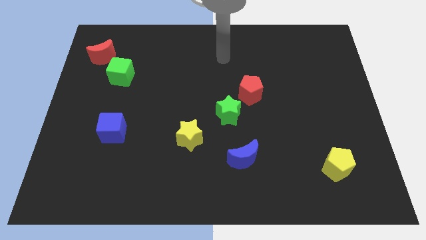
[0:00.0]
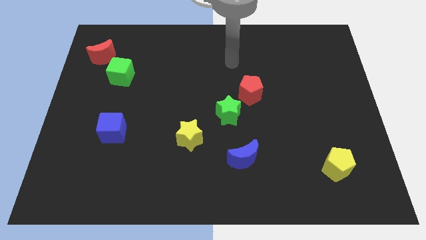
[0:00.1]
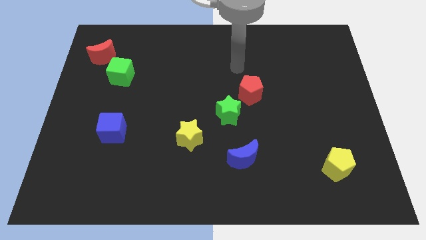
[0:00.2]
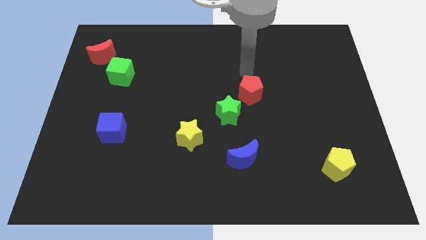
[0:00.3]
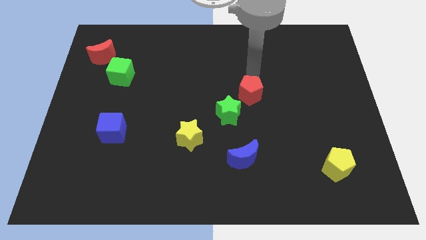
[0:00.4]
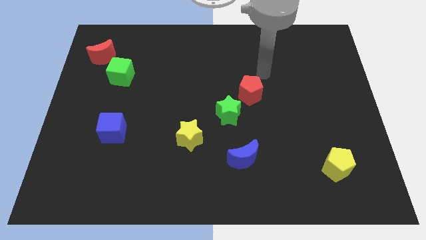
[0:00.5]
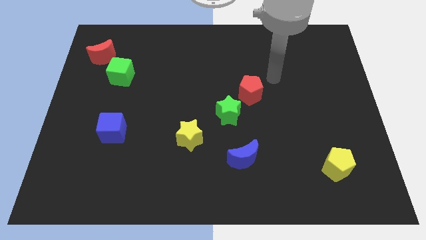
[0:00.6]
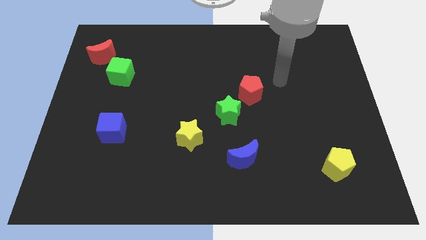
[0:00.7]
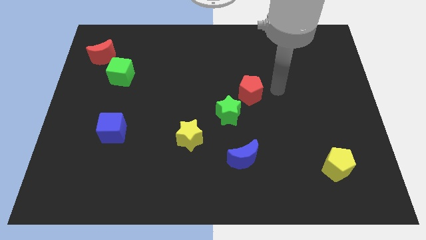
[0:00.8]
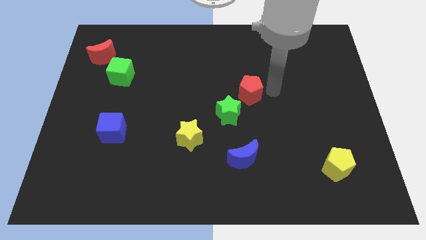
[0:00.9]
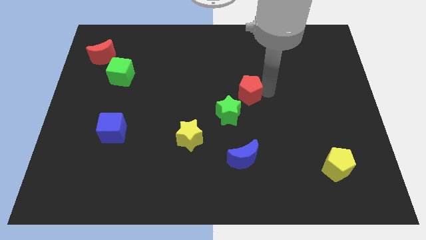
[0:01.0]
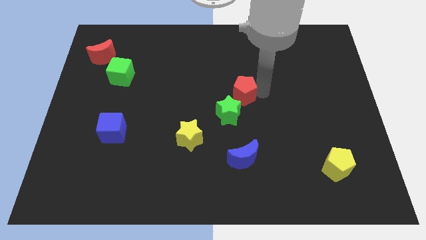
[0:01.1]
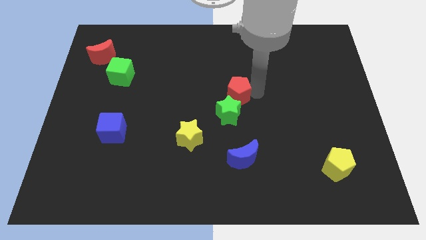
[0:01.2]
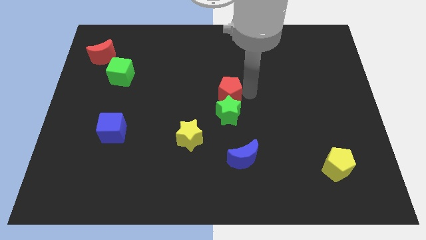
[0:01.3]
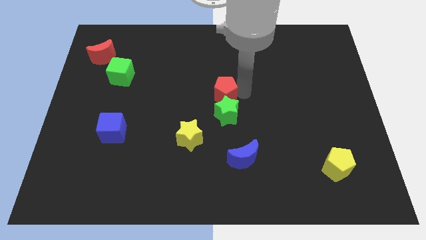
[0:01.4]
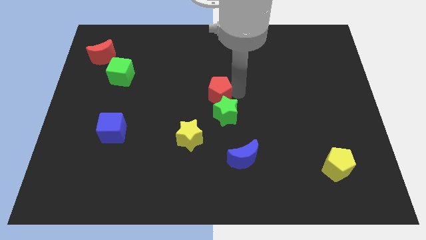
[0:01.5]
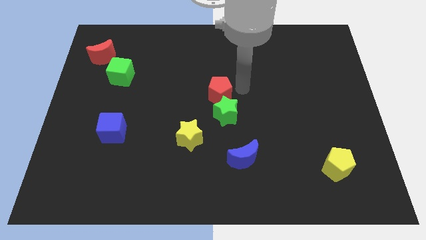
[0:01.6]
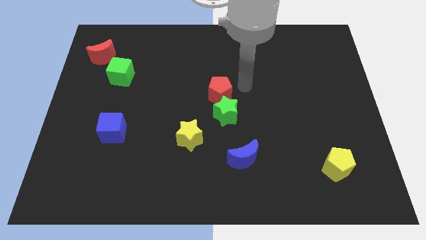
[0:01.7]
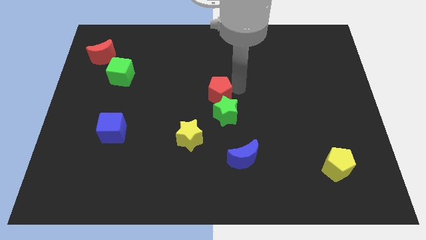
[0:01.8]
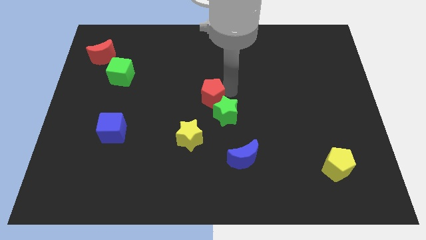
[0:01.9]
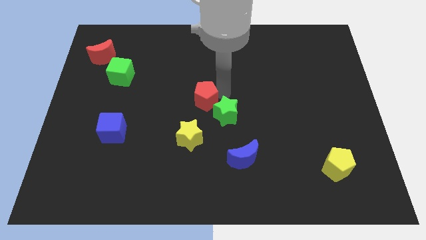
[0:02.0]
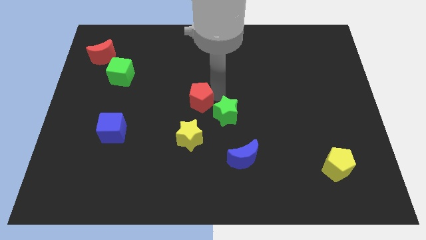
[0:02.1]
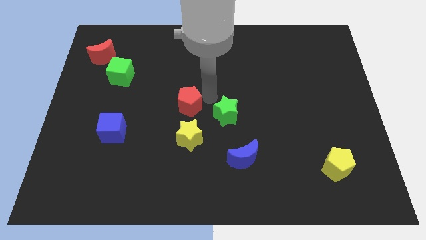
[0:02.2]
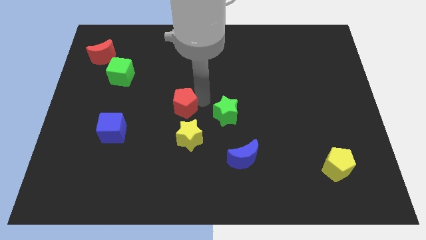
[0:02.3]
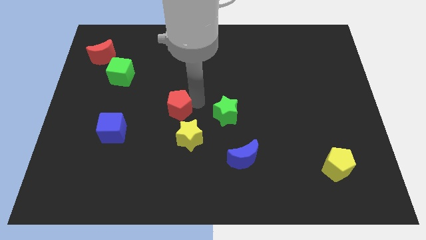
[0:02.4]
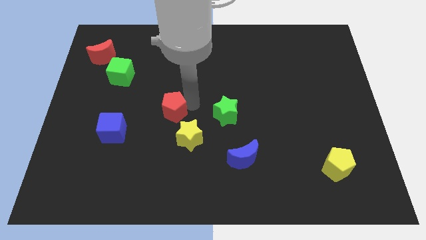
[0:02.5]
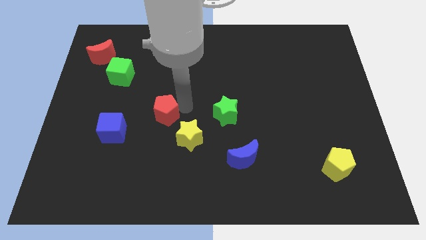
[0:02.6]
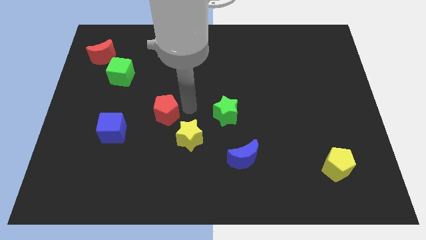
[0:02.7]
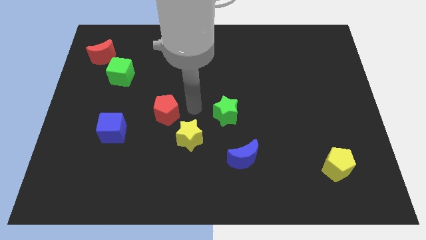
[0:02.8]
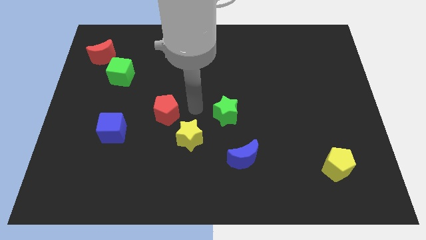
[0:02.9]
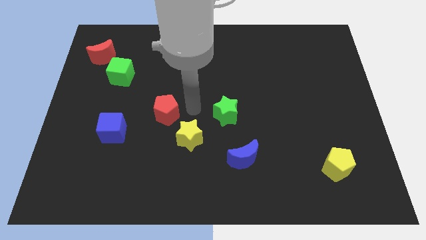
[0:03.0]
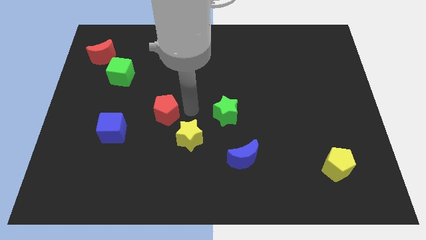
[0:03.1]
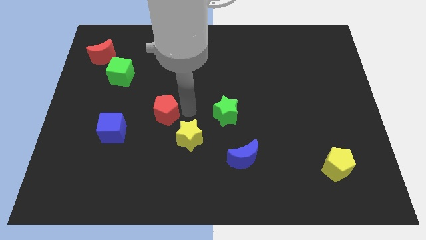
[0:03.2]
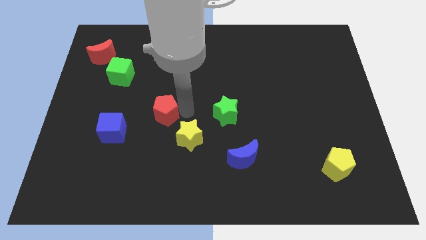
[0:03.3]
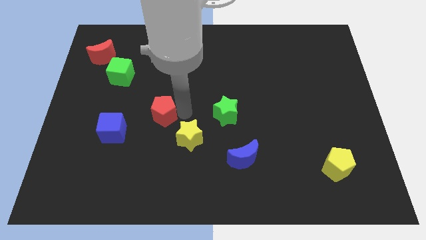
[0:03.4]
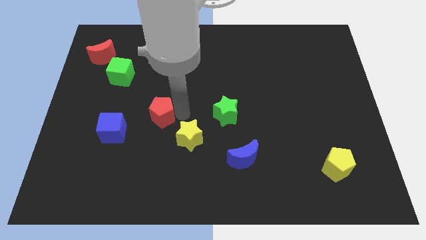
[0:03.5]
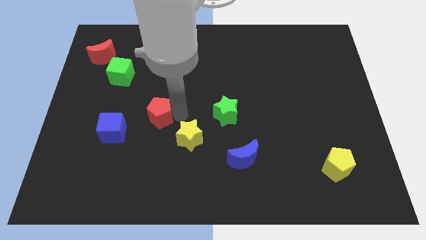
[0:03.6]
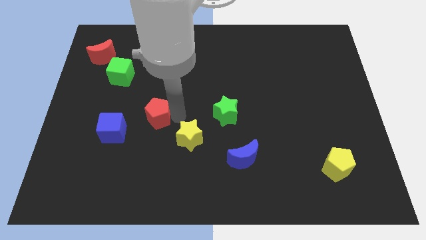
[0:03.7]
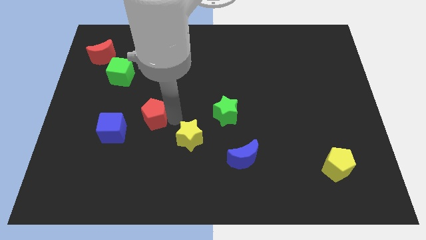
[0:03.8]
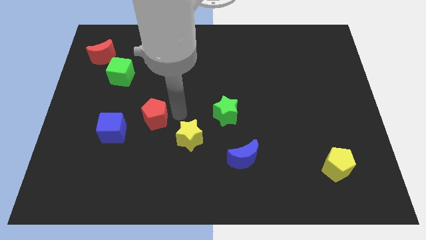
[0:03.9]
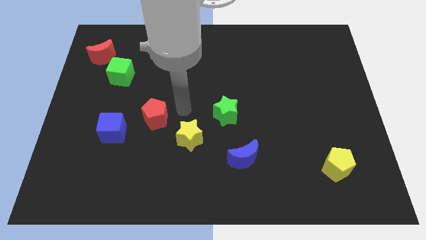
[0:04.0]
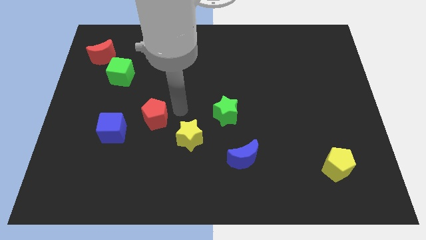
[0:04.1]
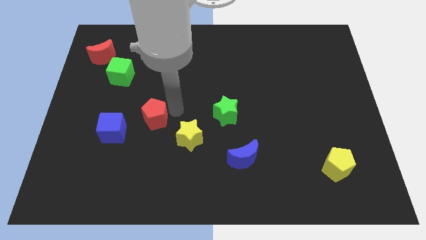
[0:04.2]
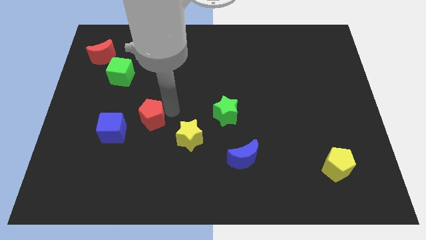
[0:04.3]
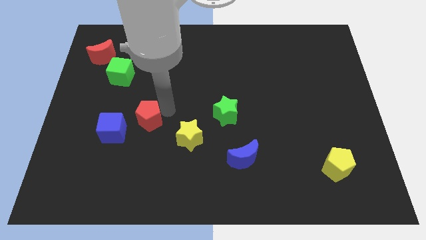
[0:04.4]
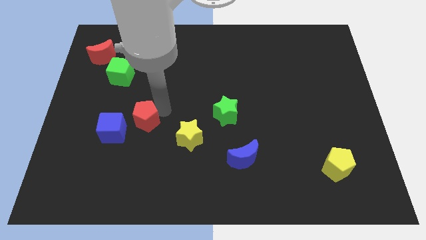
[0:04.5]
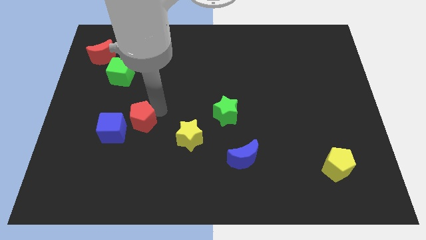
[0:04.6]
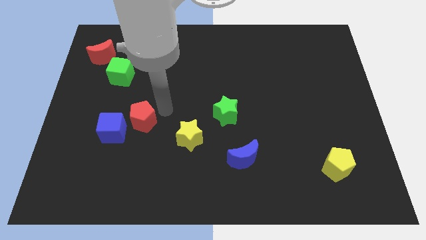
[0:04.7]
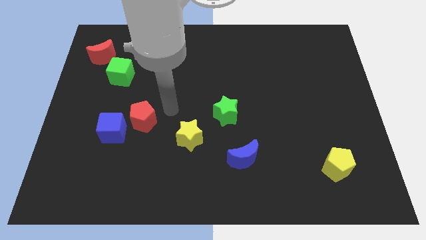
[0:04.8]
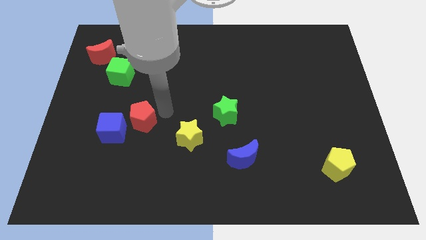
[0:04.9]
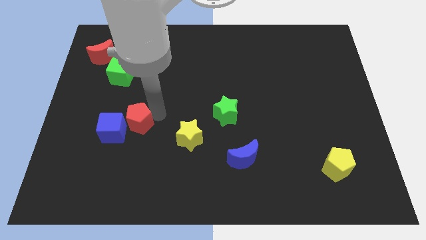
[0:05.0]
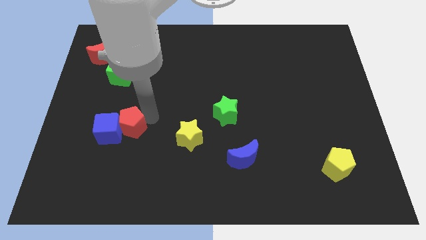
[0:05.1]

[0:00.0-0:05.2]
push the red pentagon to the blue cube

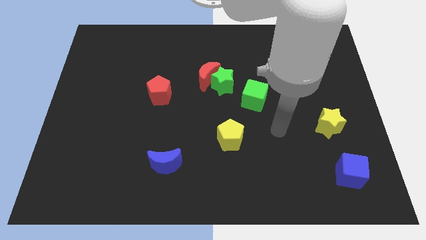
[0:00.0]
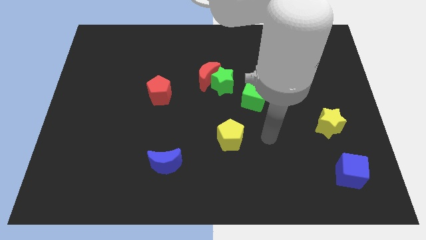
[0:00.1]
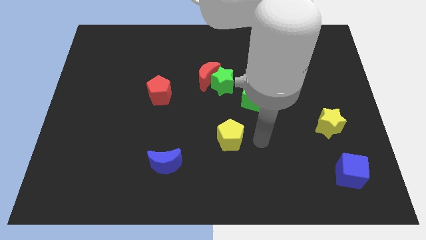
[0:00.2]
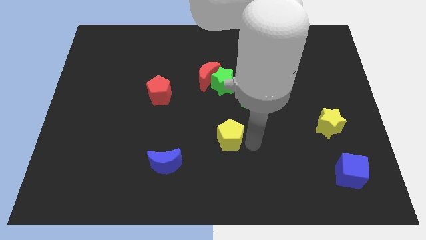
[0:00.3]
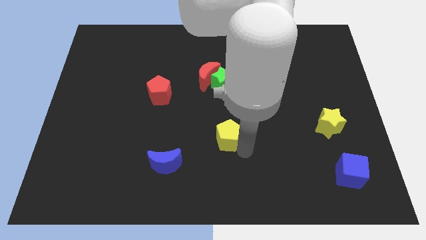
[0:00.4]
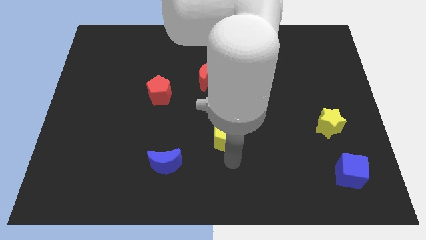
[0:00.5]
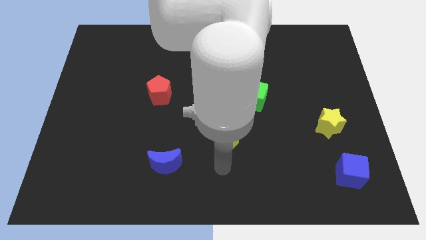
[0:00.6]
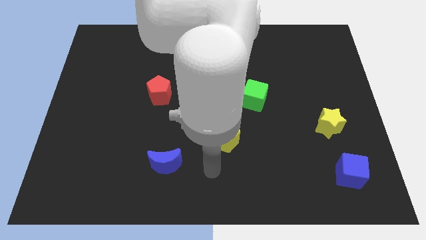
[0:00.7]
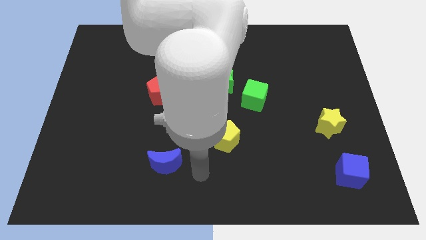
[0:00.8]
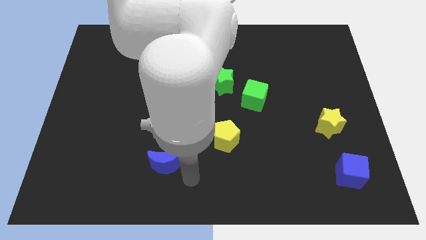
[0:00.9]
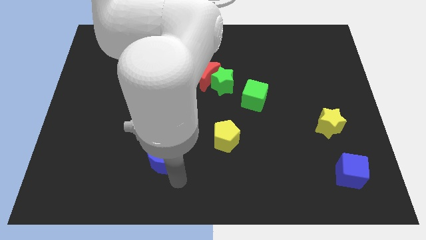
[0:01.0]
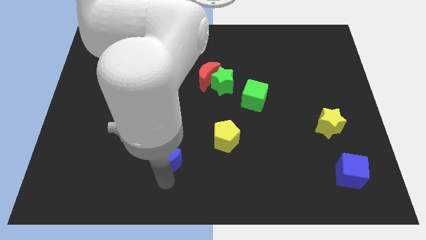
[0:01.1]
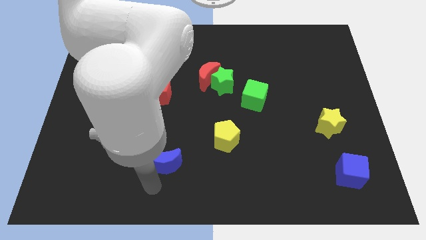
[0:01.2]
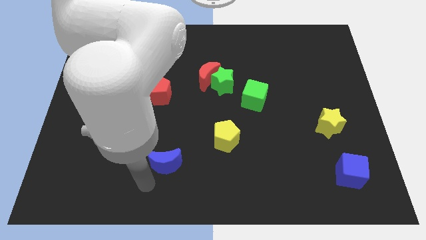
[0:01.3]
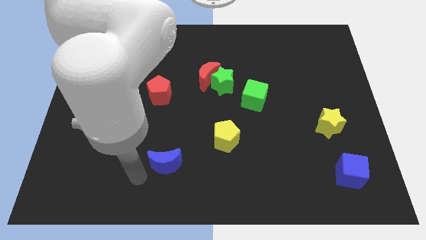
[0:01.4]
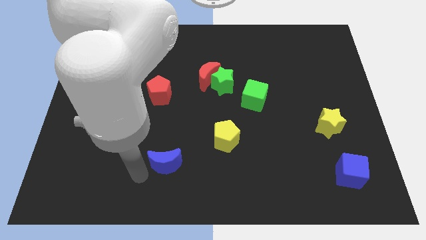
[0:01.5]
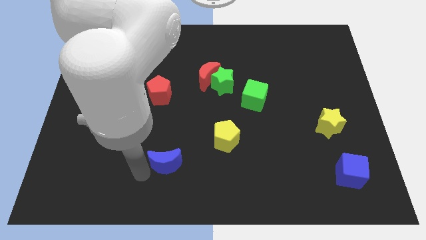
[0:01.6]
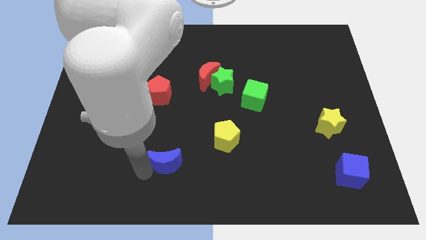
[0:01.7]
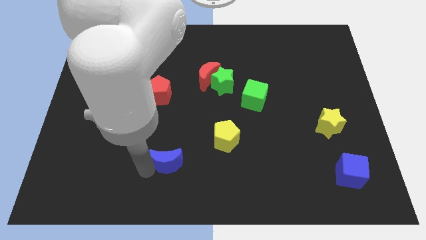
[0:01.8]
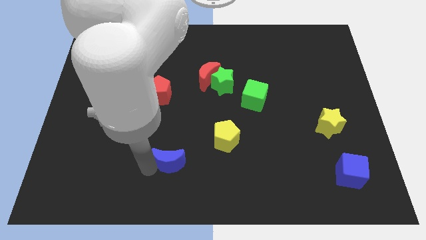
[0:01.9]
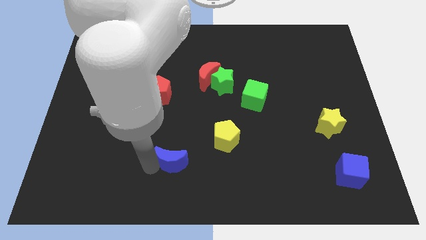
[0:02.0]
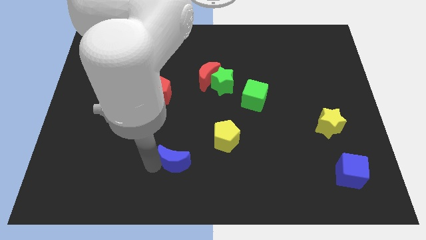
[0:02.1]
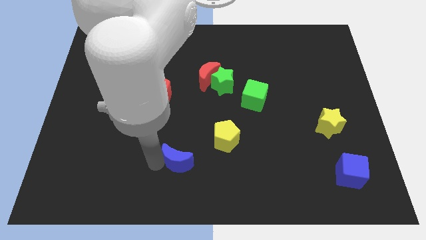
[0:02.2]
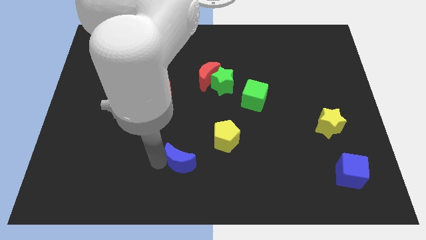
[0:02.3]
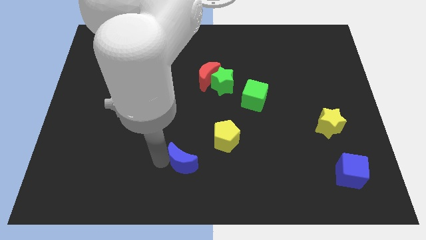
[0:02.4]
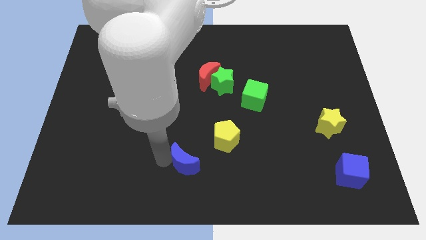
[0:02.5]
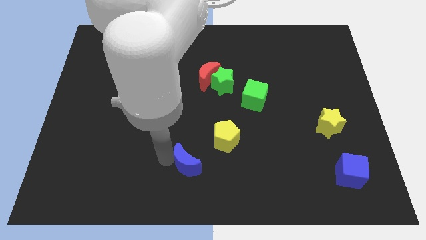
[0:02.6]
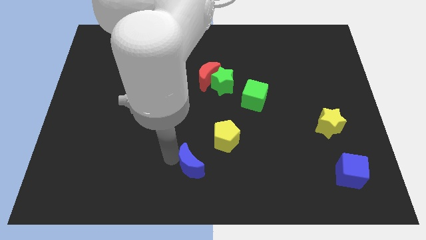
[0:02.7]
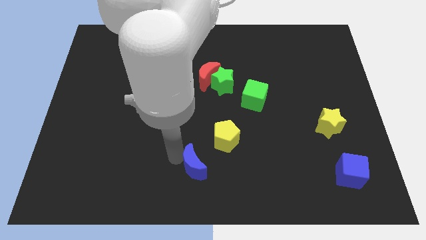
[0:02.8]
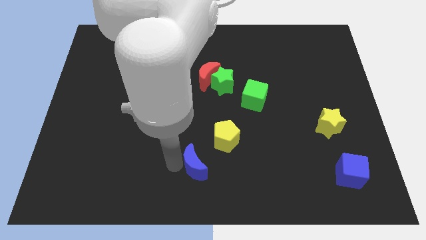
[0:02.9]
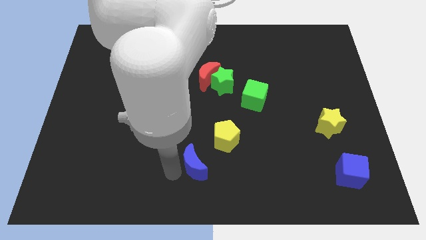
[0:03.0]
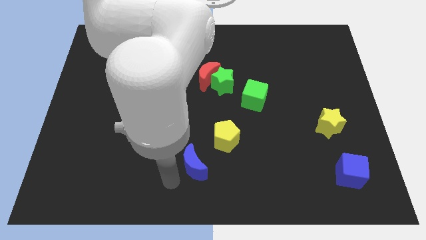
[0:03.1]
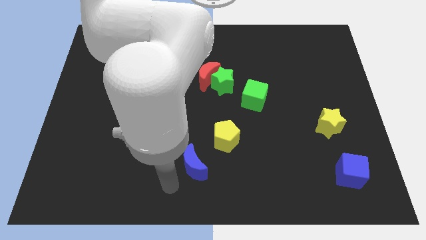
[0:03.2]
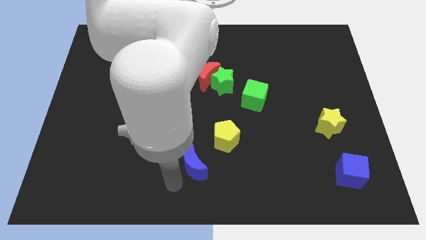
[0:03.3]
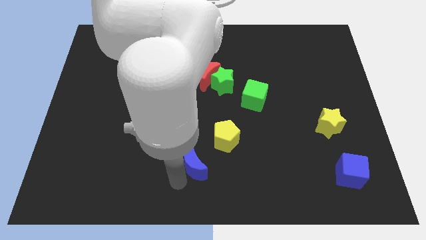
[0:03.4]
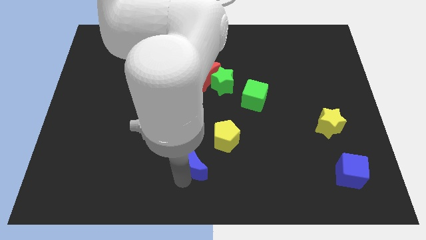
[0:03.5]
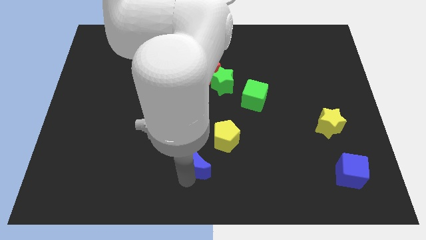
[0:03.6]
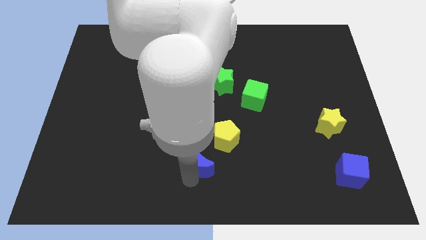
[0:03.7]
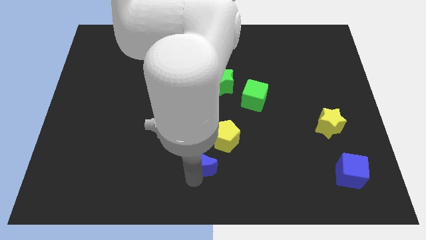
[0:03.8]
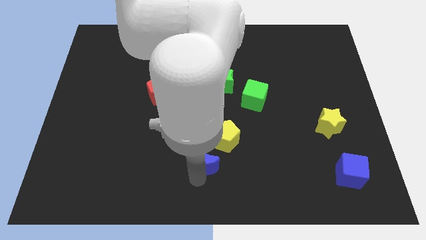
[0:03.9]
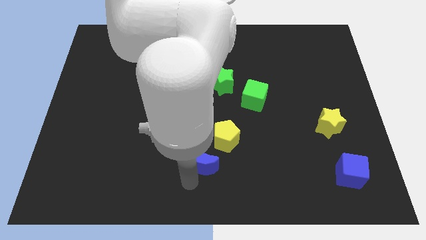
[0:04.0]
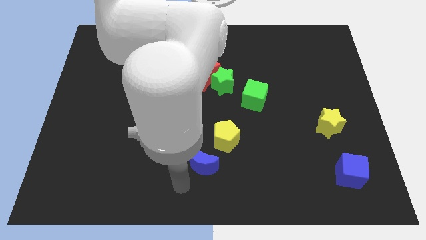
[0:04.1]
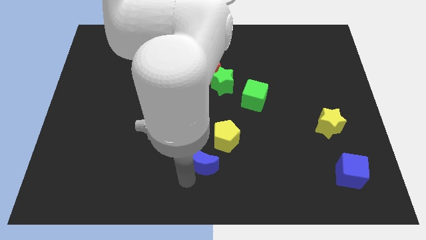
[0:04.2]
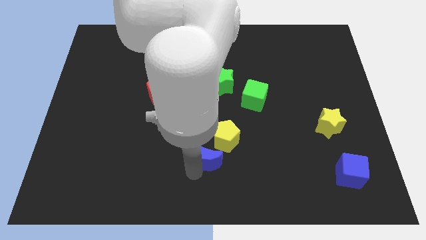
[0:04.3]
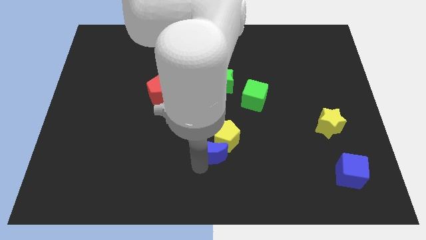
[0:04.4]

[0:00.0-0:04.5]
move the blue moon next to the yellow pentagon
